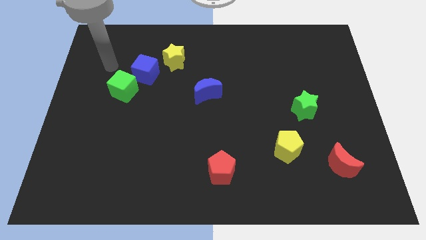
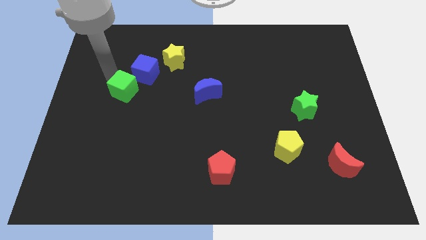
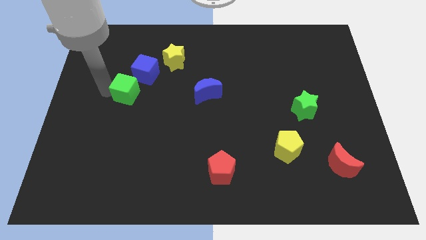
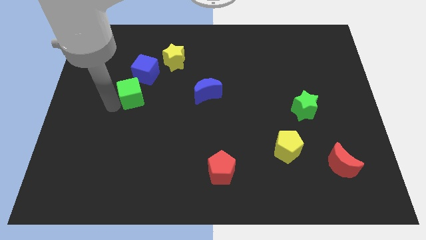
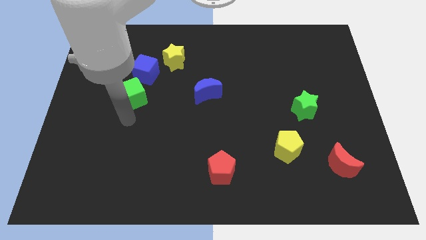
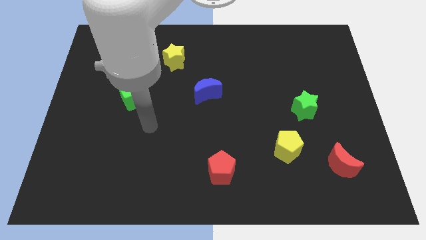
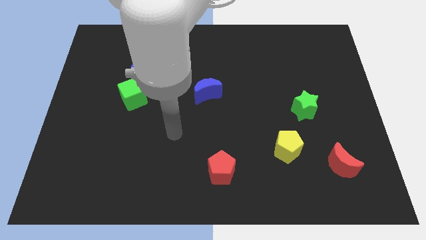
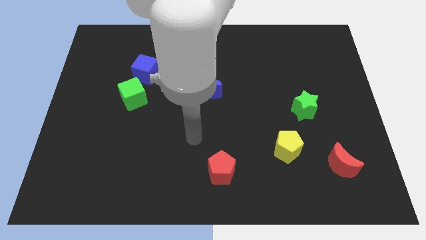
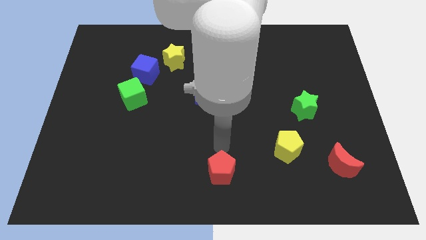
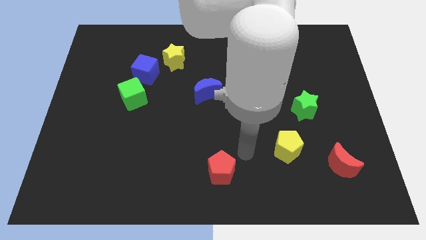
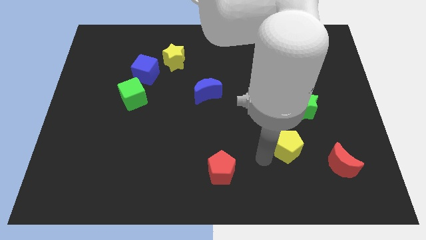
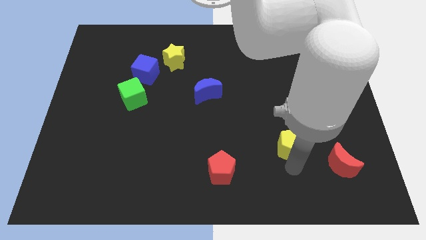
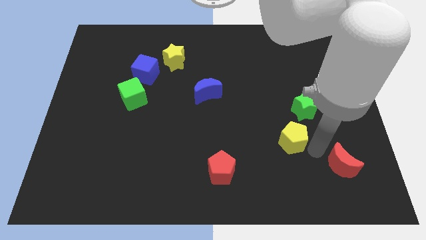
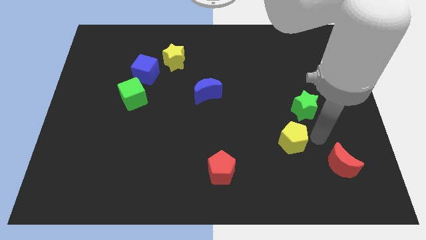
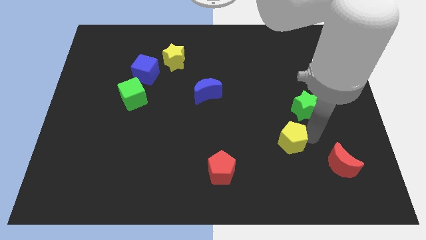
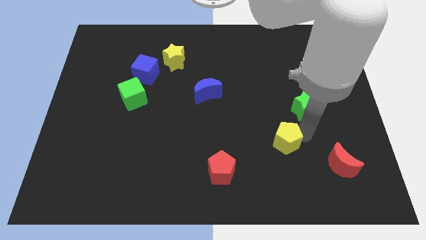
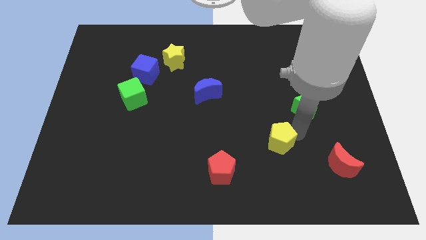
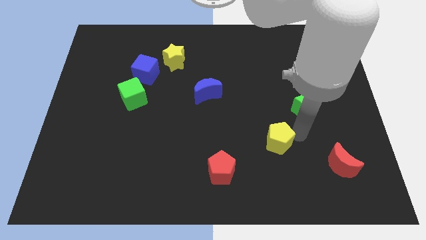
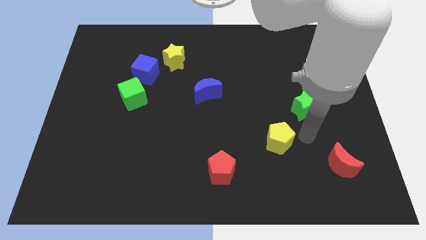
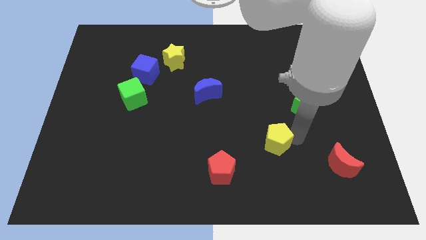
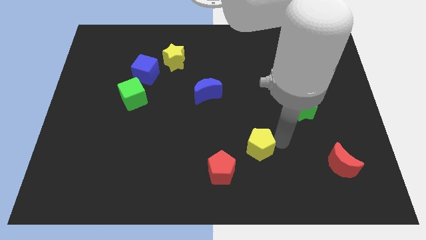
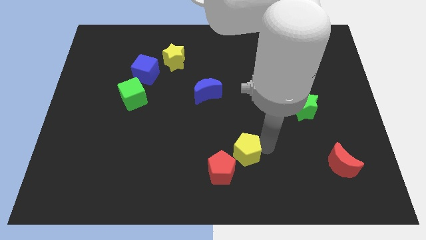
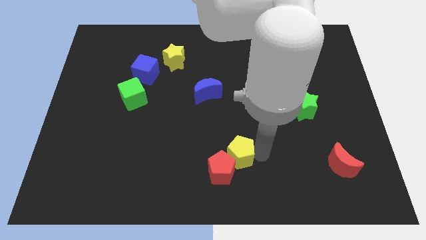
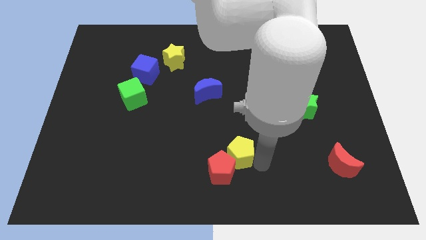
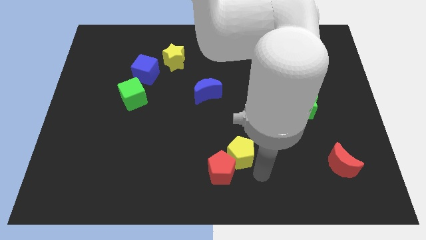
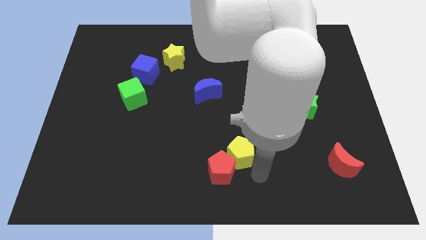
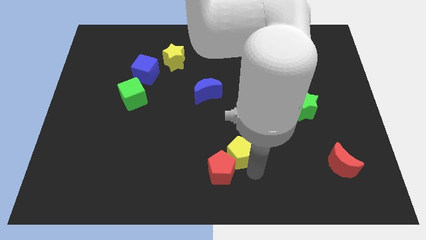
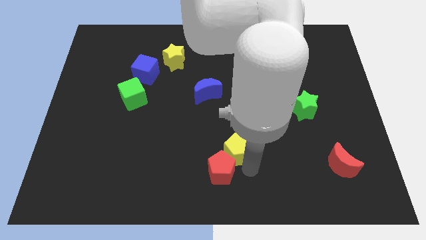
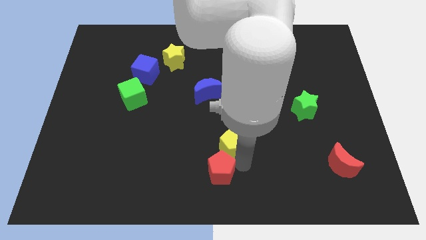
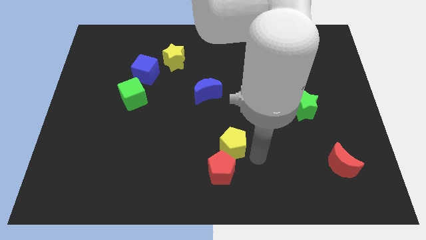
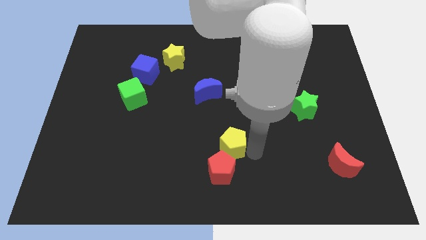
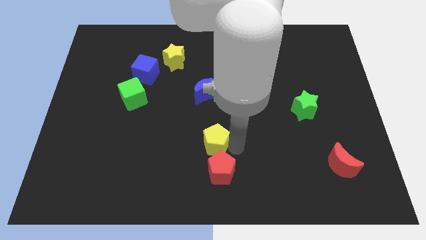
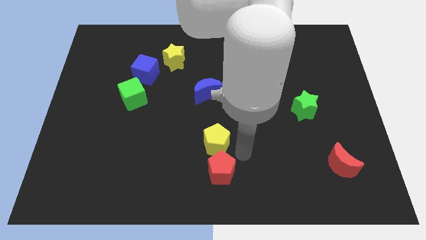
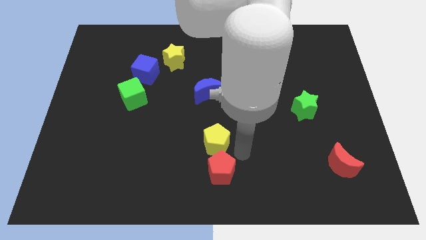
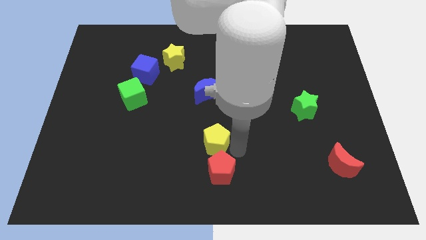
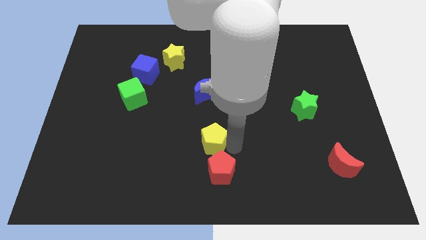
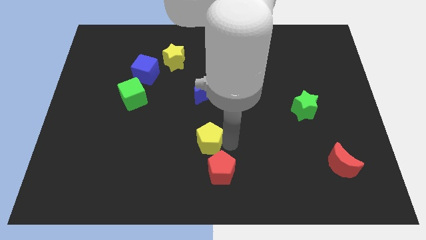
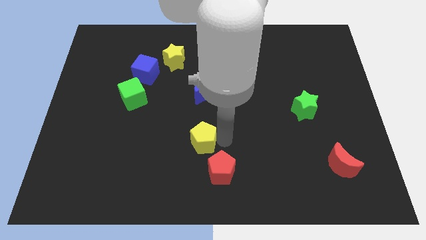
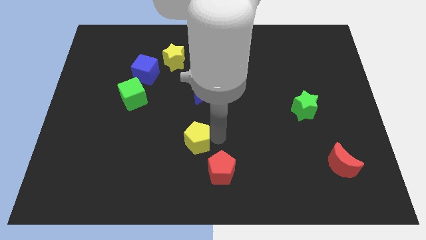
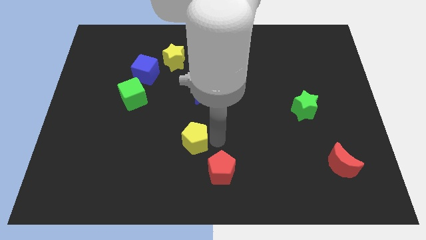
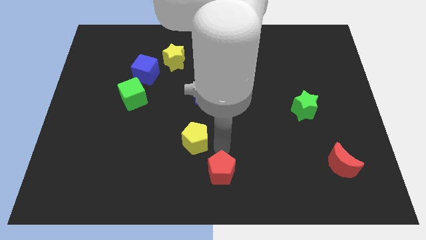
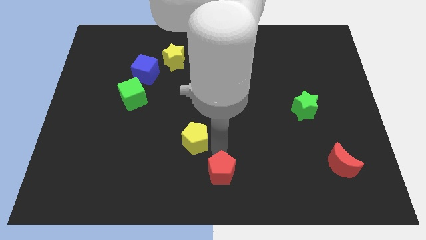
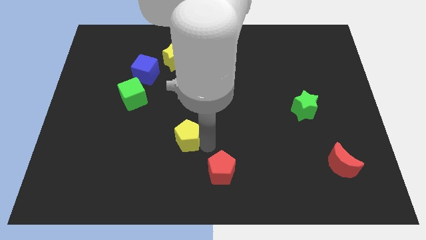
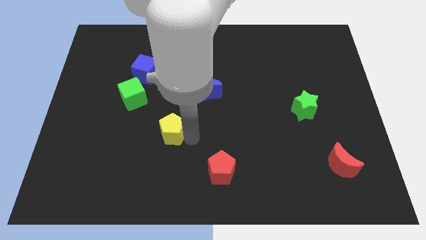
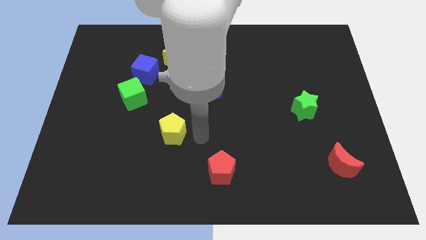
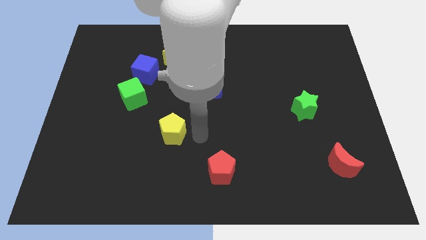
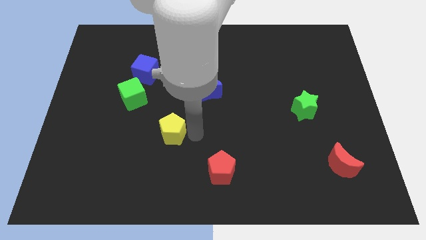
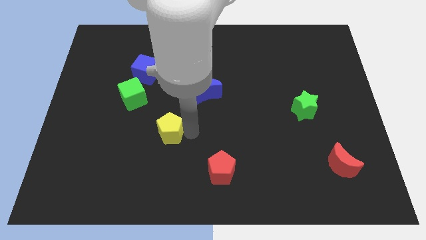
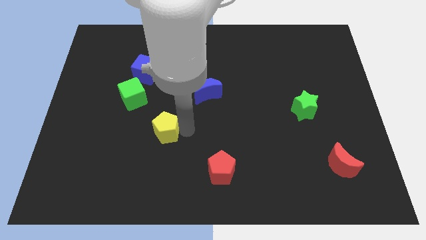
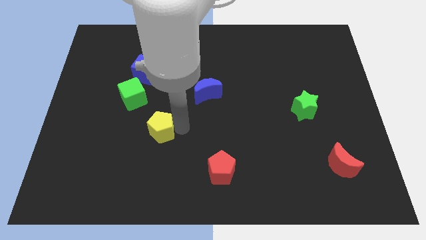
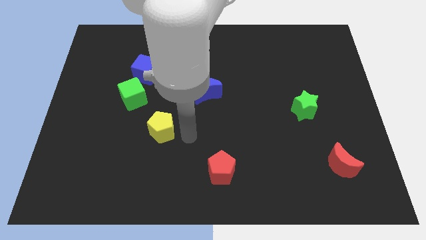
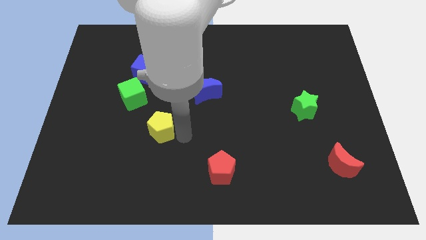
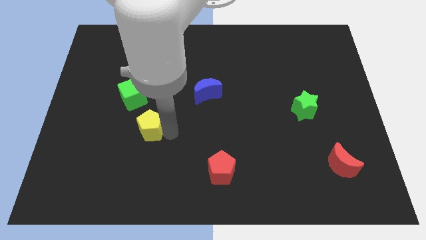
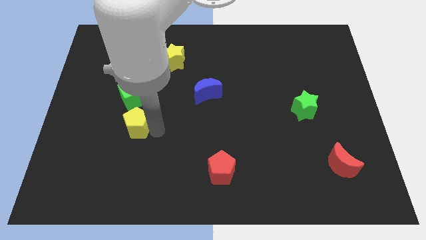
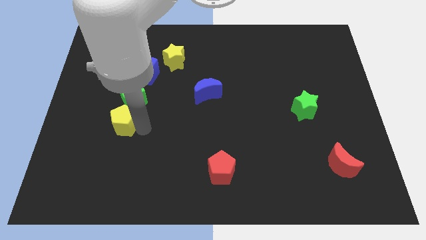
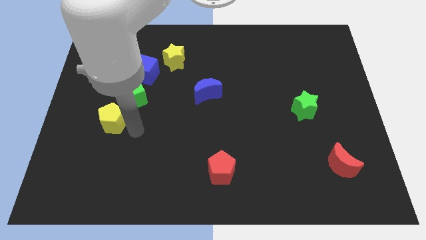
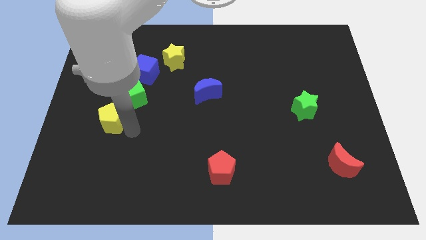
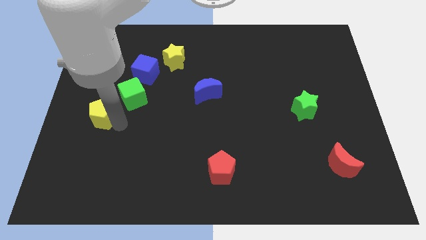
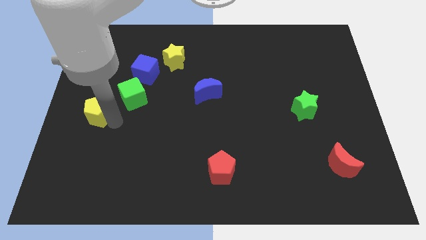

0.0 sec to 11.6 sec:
push the yellow pentagon to the left side of the board
